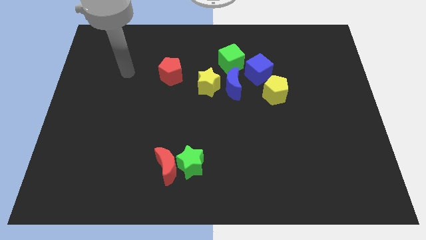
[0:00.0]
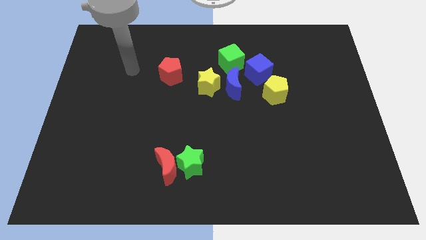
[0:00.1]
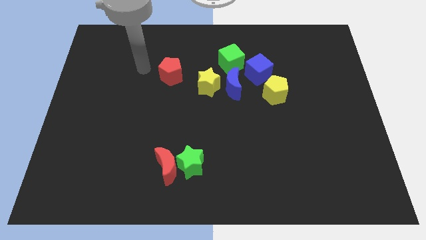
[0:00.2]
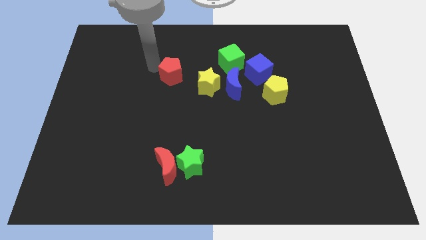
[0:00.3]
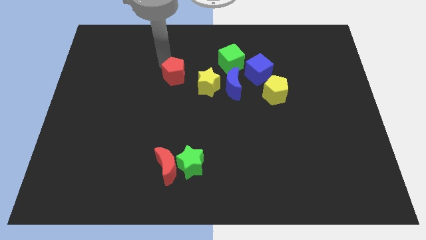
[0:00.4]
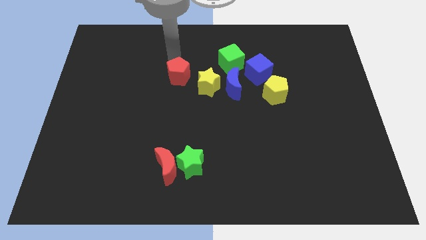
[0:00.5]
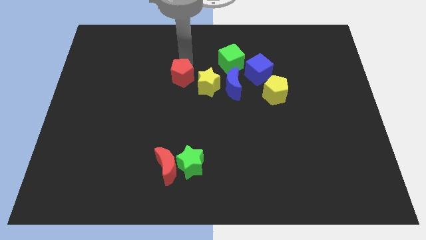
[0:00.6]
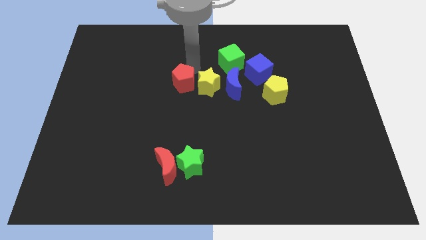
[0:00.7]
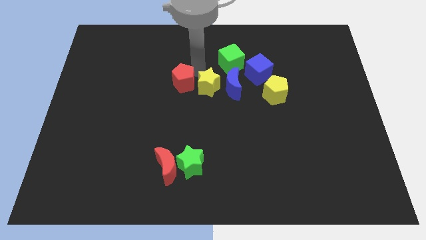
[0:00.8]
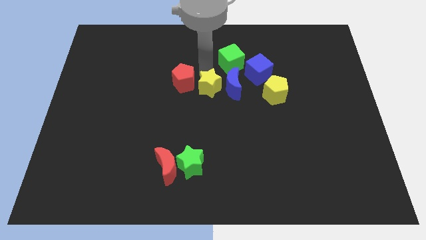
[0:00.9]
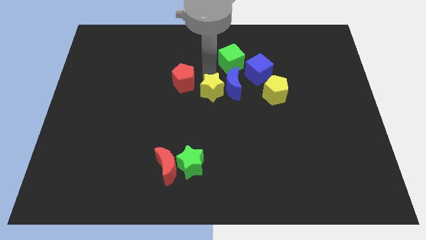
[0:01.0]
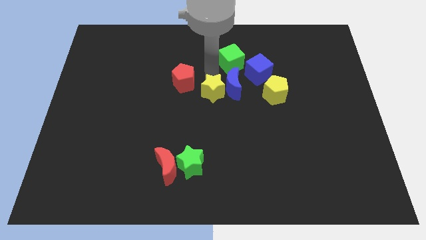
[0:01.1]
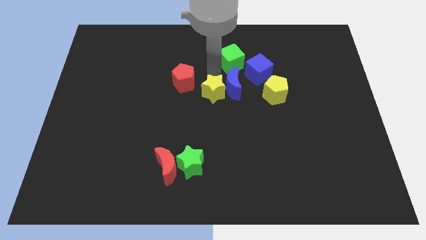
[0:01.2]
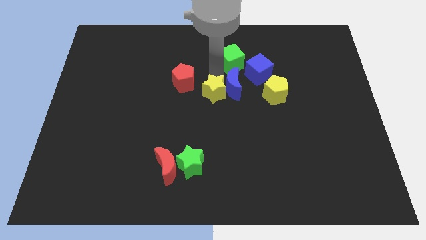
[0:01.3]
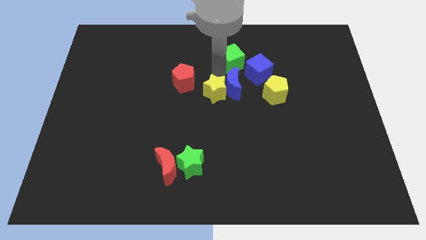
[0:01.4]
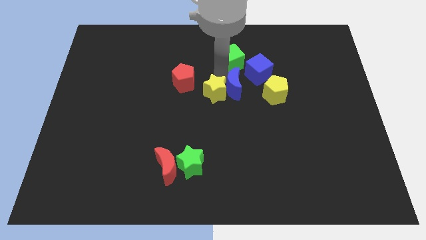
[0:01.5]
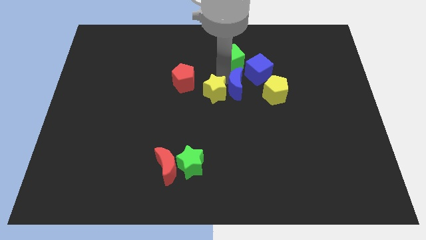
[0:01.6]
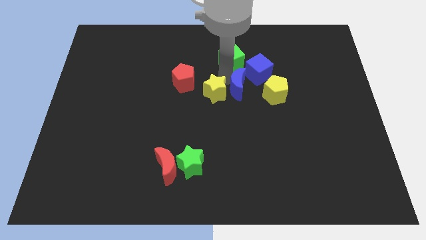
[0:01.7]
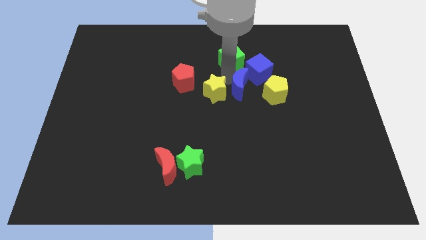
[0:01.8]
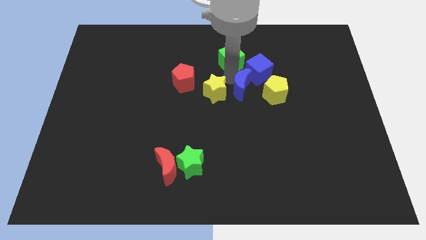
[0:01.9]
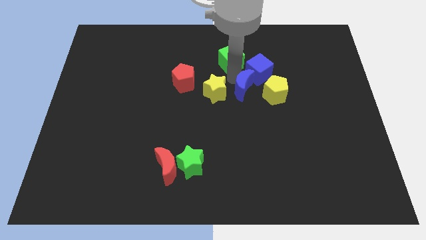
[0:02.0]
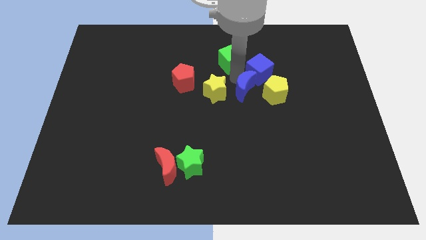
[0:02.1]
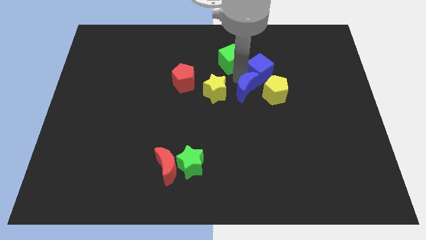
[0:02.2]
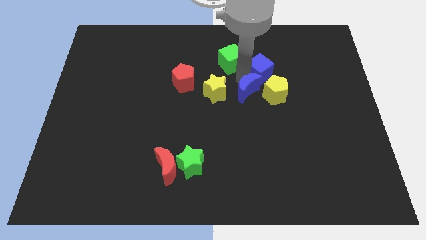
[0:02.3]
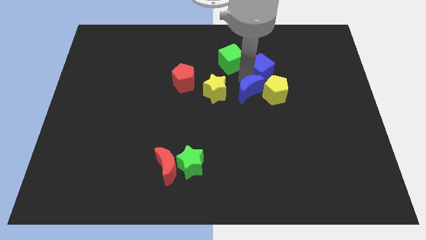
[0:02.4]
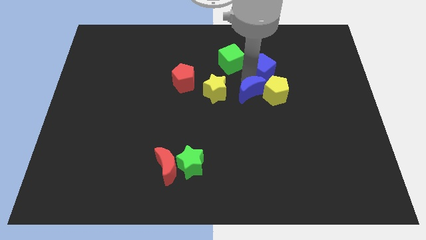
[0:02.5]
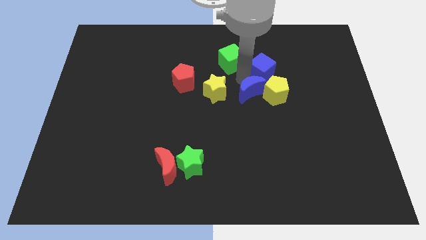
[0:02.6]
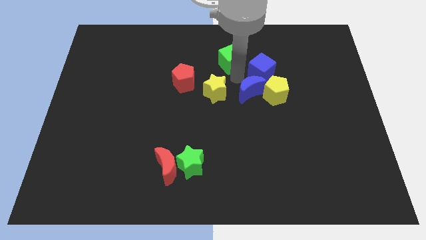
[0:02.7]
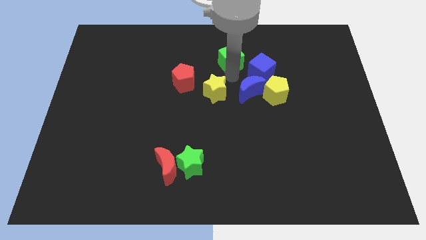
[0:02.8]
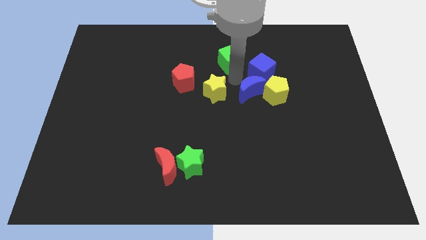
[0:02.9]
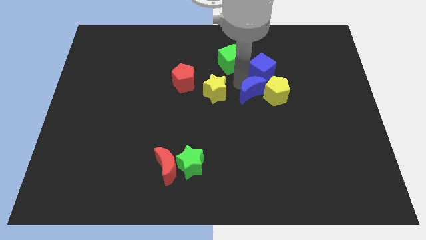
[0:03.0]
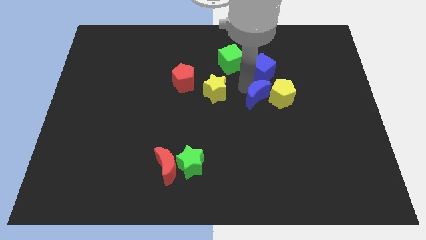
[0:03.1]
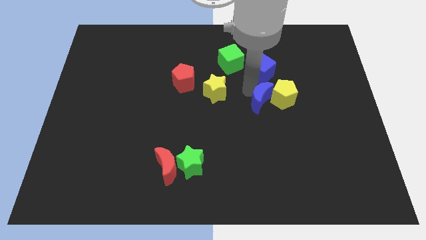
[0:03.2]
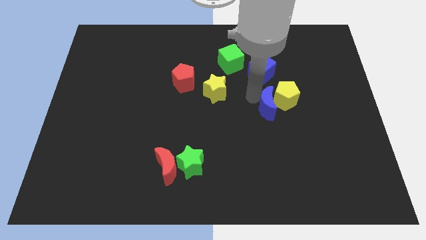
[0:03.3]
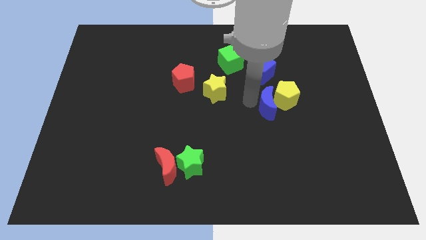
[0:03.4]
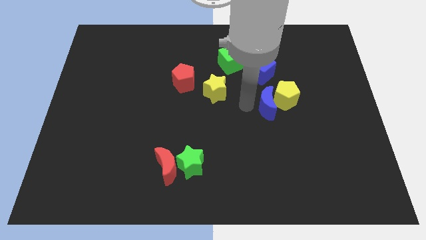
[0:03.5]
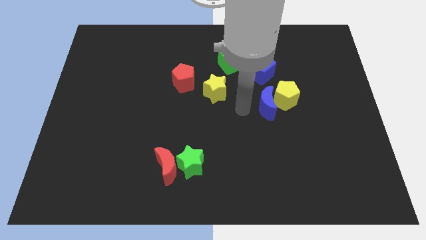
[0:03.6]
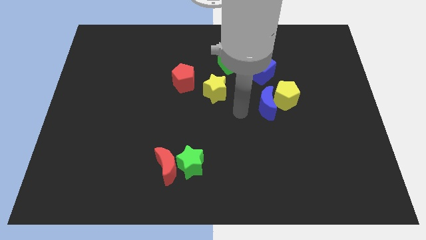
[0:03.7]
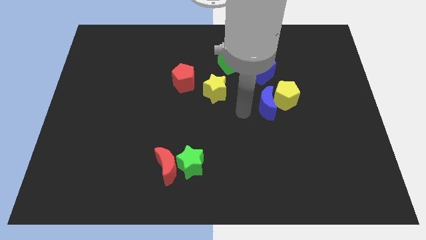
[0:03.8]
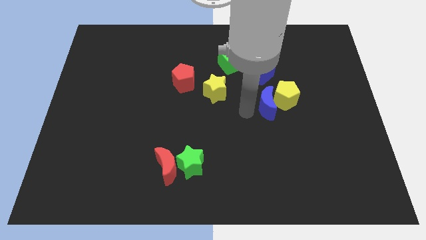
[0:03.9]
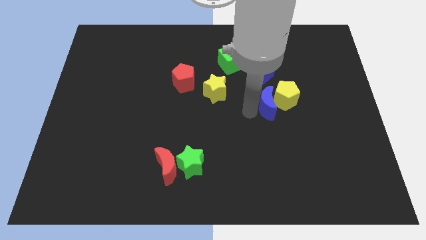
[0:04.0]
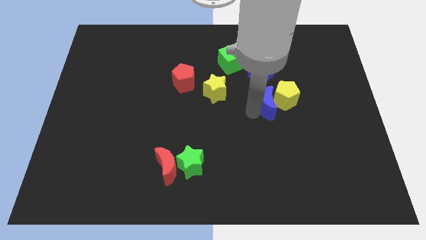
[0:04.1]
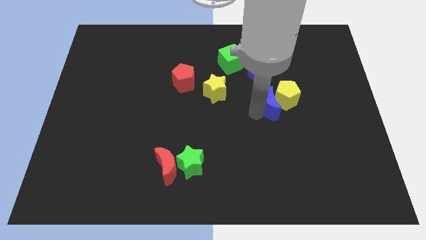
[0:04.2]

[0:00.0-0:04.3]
move the blue moon a little bit to the right

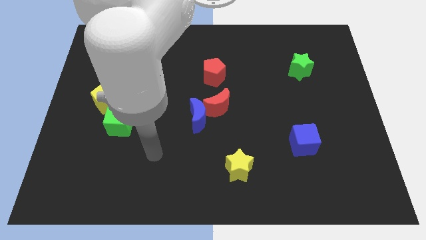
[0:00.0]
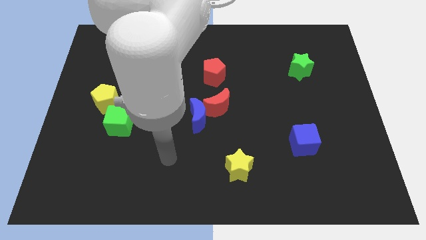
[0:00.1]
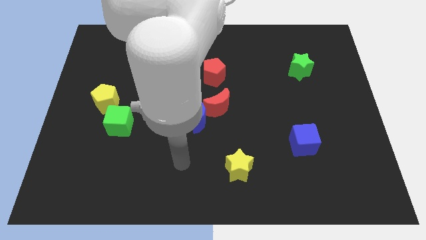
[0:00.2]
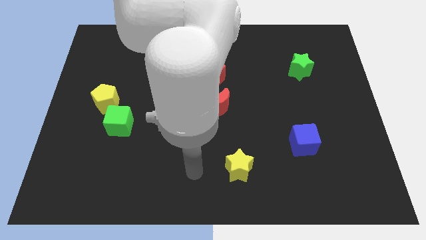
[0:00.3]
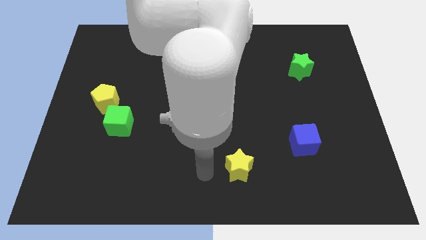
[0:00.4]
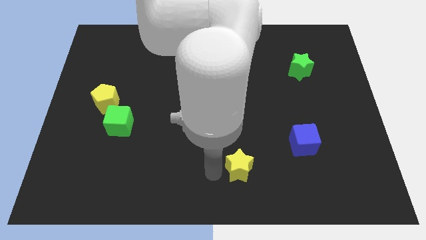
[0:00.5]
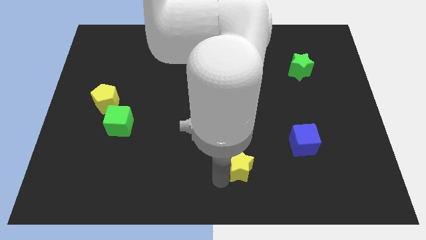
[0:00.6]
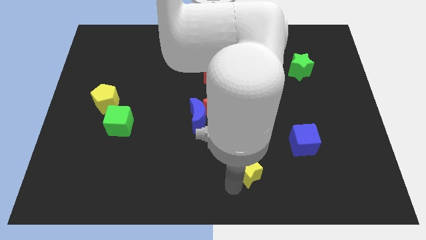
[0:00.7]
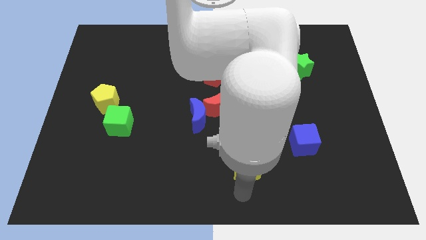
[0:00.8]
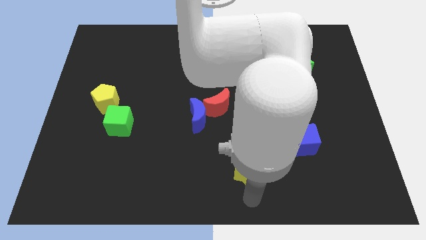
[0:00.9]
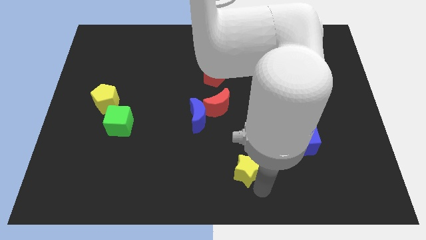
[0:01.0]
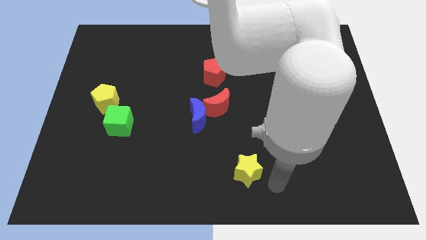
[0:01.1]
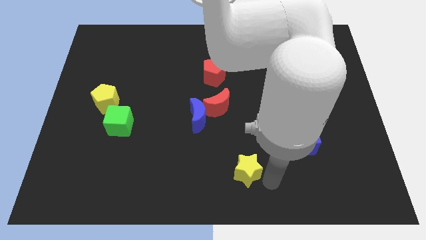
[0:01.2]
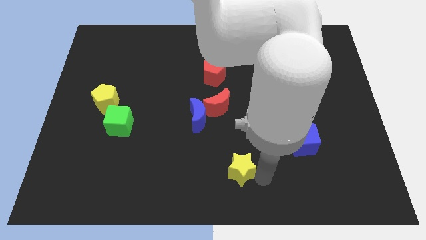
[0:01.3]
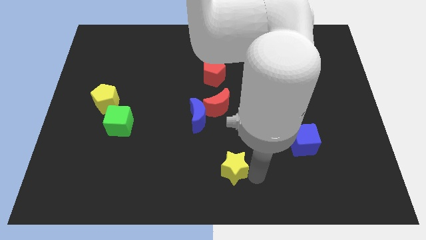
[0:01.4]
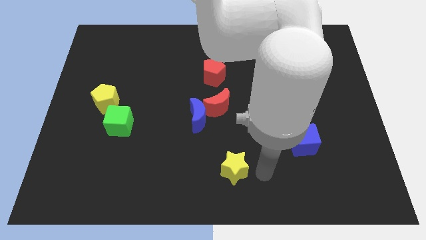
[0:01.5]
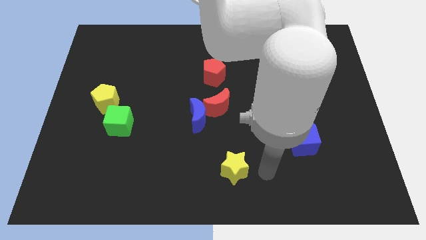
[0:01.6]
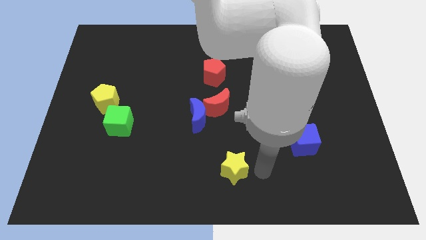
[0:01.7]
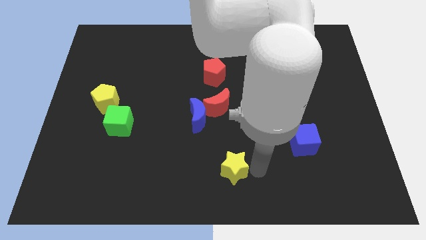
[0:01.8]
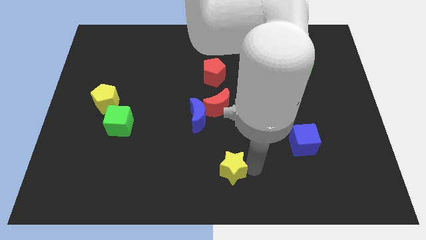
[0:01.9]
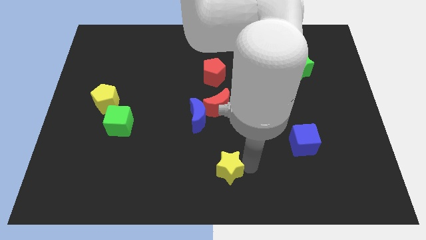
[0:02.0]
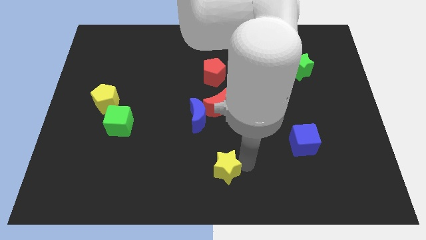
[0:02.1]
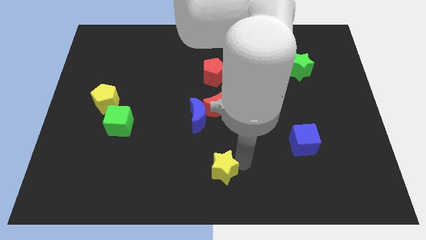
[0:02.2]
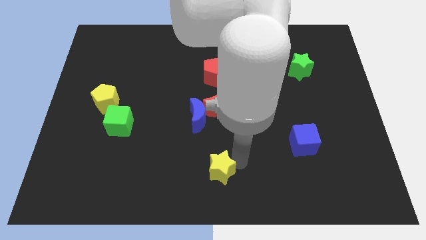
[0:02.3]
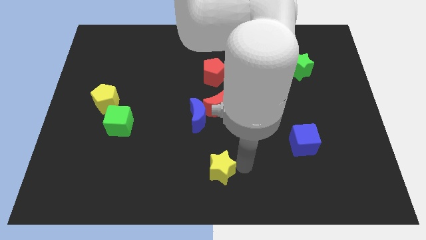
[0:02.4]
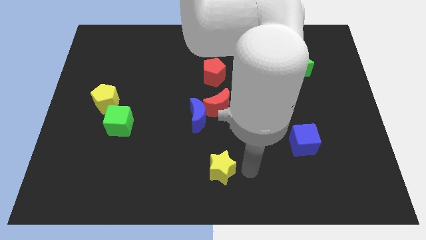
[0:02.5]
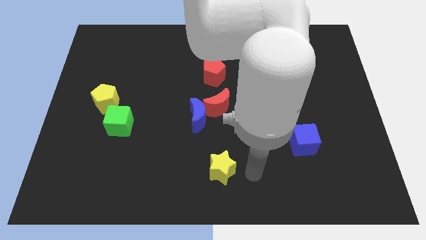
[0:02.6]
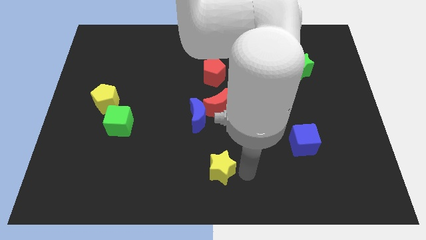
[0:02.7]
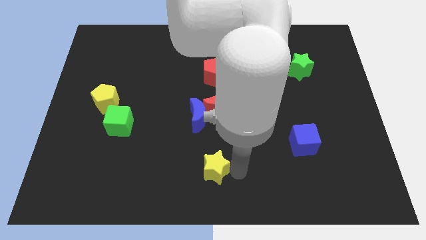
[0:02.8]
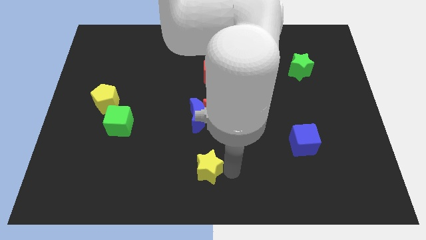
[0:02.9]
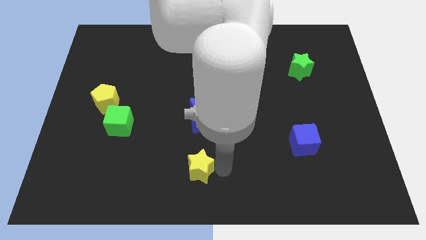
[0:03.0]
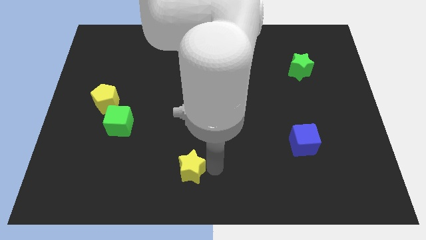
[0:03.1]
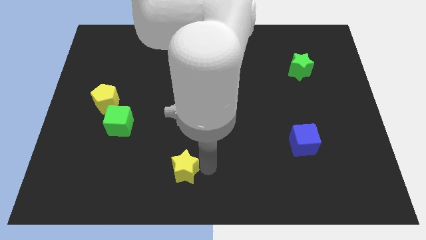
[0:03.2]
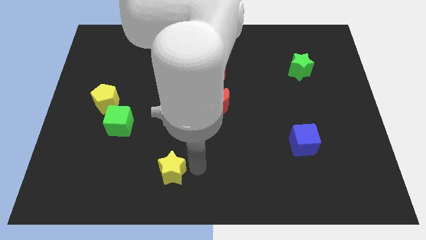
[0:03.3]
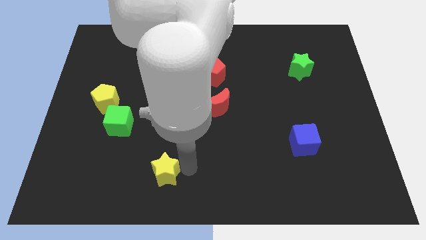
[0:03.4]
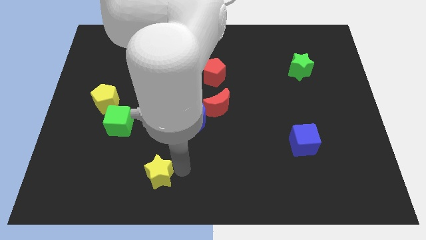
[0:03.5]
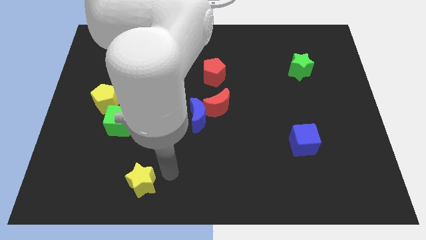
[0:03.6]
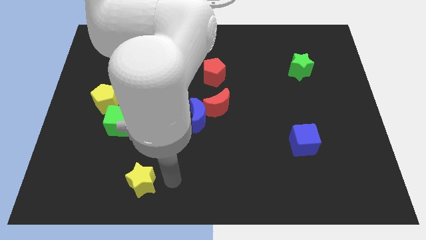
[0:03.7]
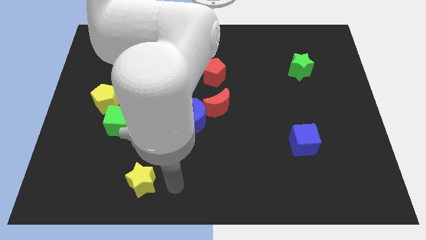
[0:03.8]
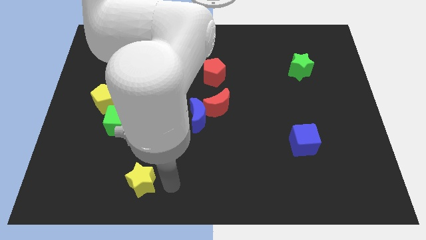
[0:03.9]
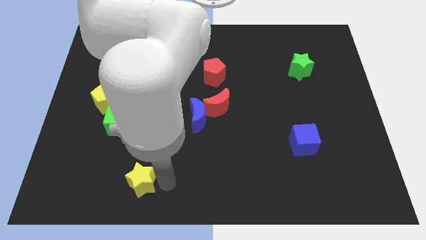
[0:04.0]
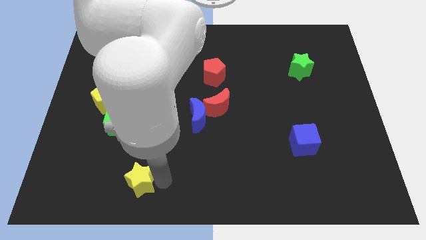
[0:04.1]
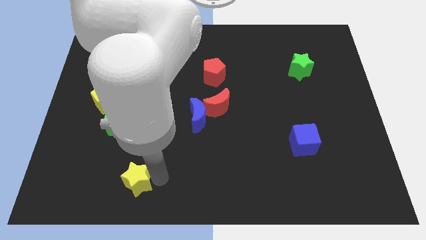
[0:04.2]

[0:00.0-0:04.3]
push the yellow star left
